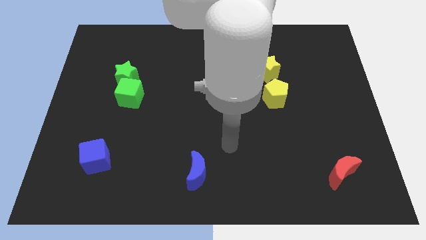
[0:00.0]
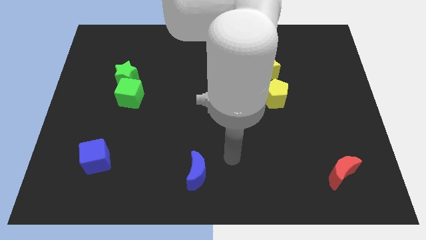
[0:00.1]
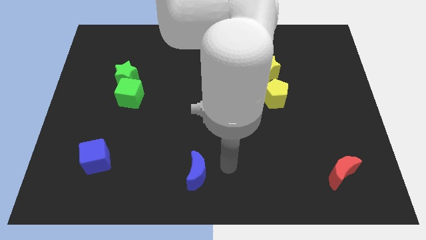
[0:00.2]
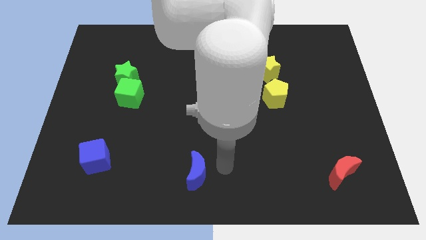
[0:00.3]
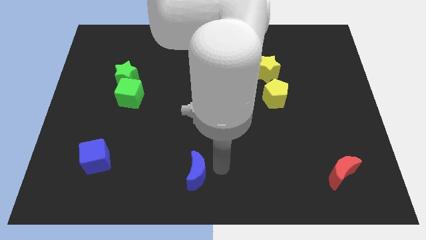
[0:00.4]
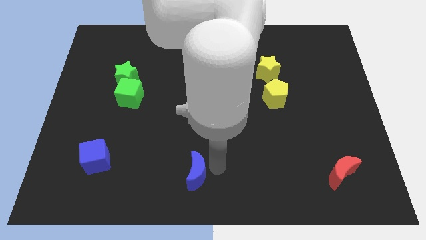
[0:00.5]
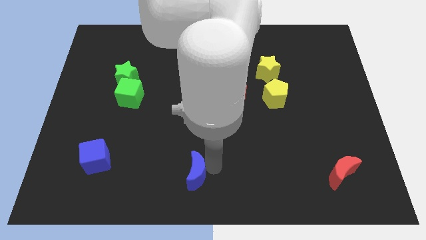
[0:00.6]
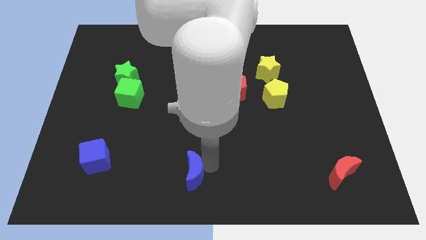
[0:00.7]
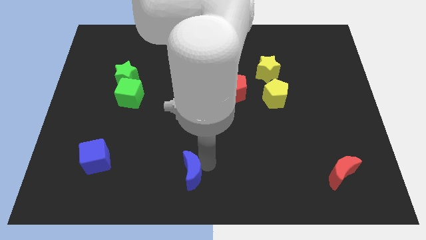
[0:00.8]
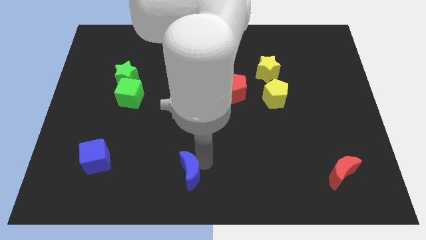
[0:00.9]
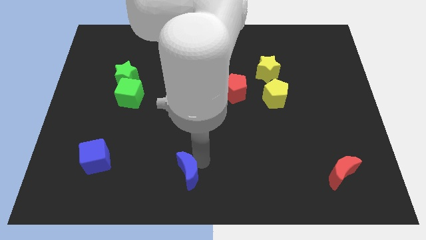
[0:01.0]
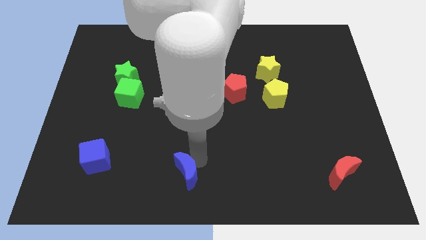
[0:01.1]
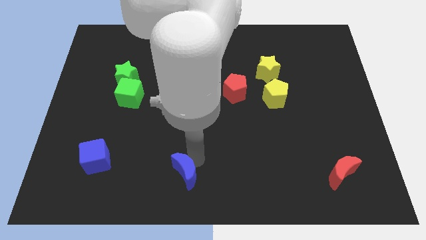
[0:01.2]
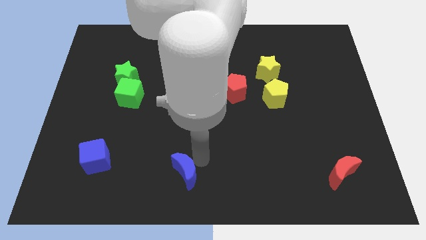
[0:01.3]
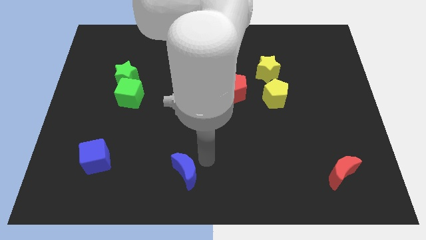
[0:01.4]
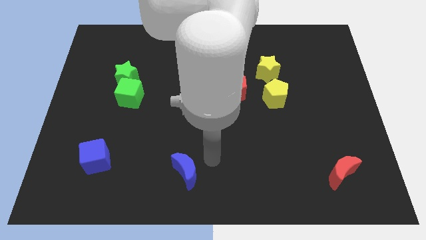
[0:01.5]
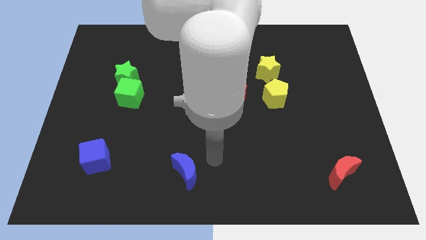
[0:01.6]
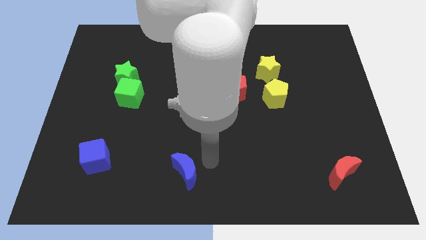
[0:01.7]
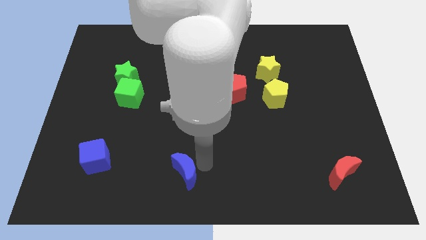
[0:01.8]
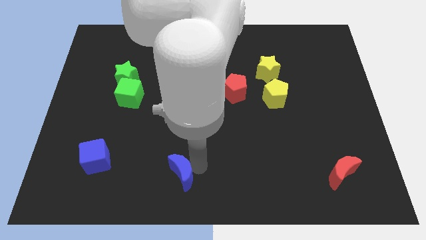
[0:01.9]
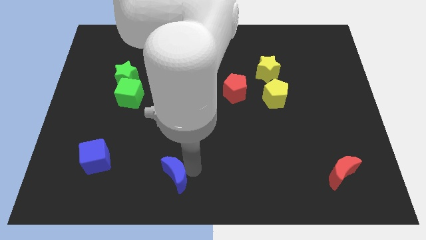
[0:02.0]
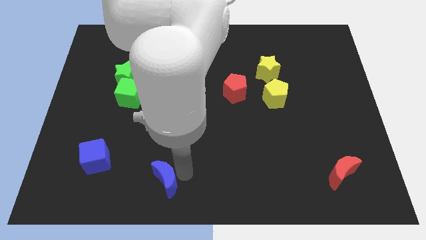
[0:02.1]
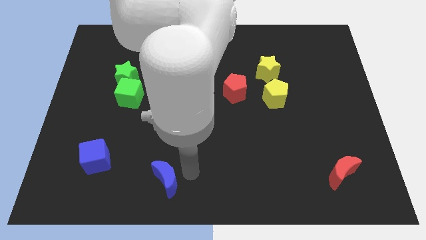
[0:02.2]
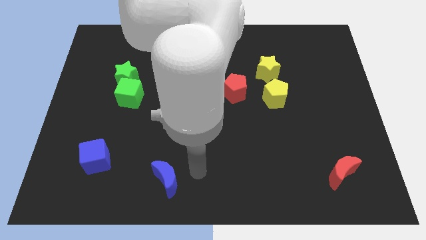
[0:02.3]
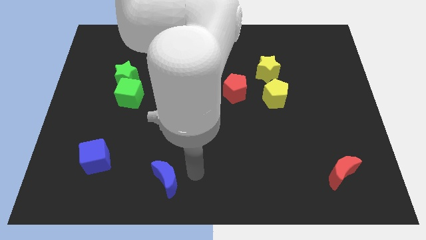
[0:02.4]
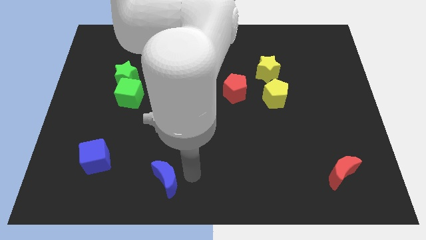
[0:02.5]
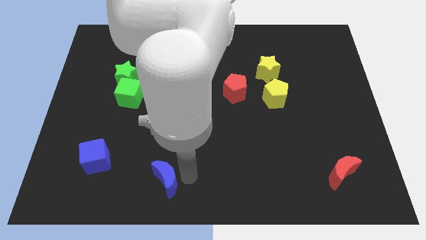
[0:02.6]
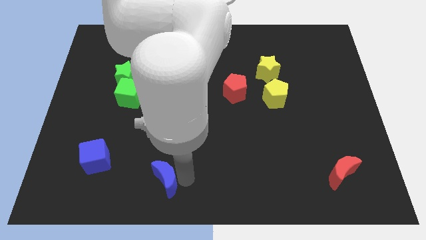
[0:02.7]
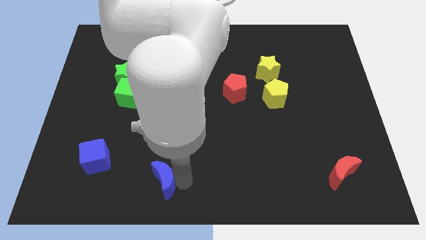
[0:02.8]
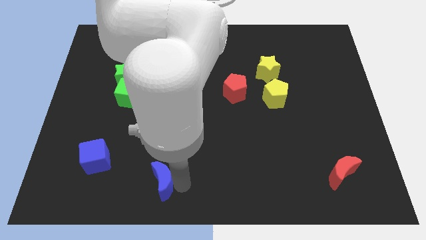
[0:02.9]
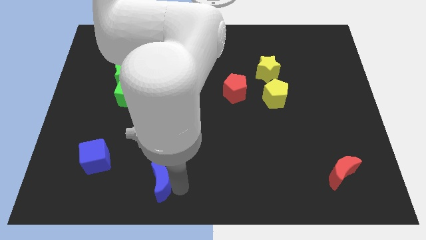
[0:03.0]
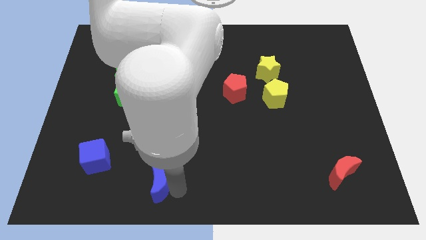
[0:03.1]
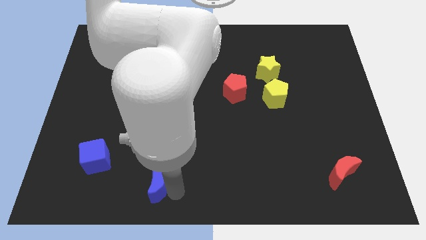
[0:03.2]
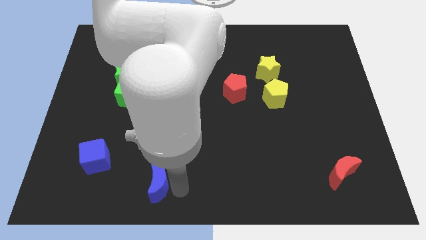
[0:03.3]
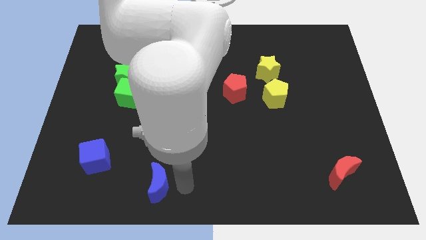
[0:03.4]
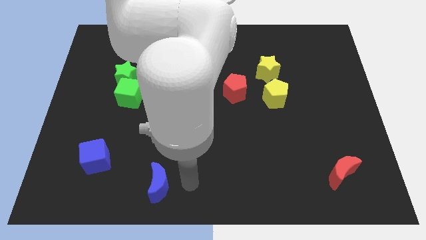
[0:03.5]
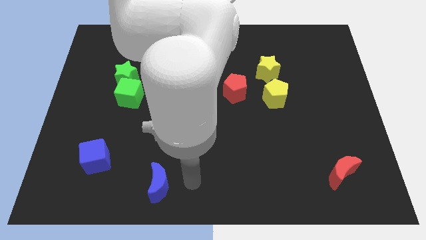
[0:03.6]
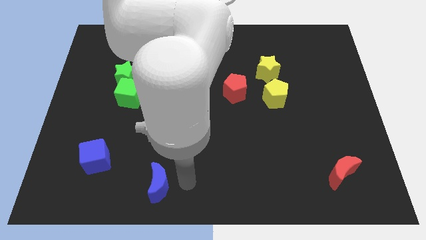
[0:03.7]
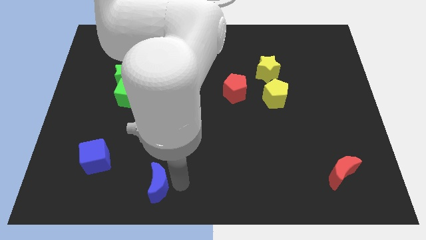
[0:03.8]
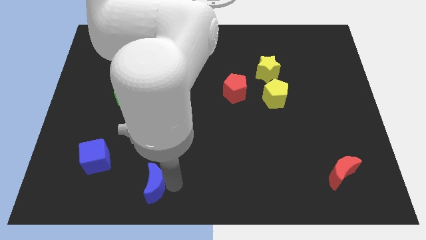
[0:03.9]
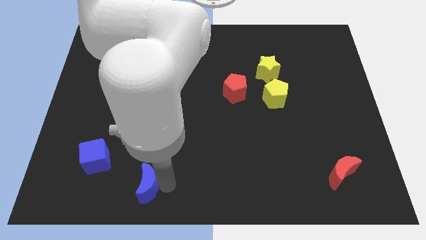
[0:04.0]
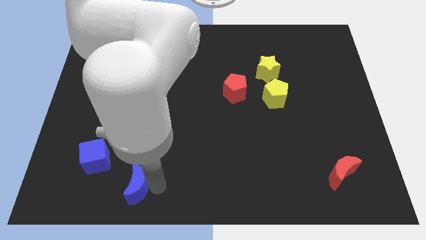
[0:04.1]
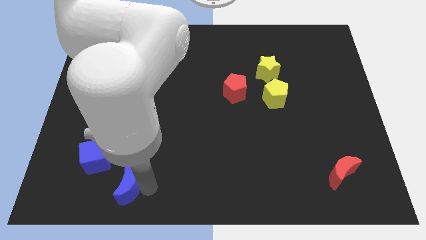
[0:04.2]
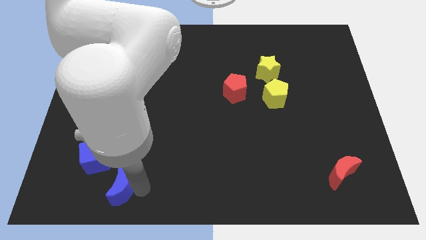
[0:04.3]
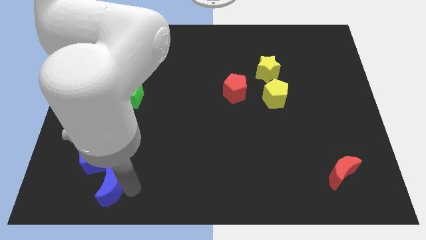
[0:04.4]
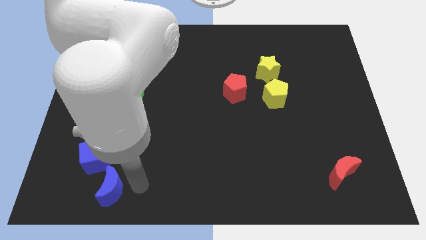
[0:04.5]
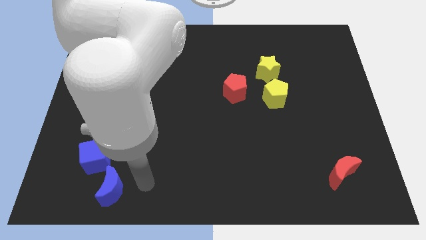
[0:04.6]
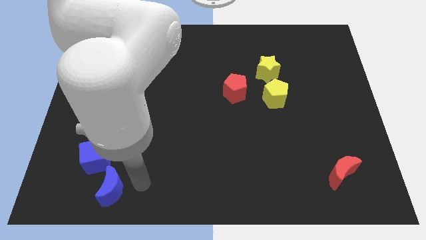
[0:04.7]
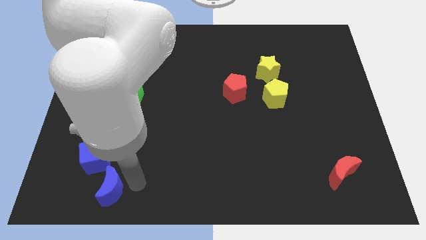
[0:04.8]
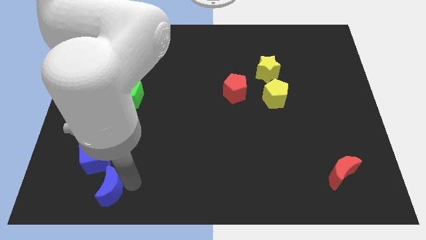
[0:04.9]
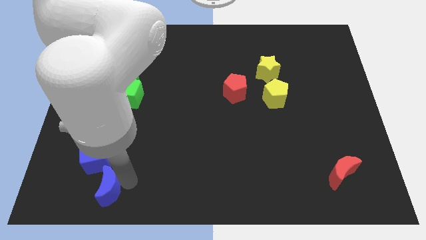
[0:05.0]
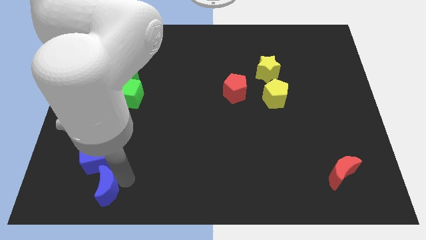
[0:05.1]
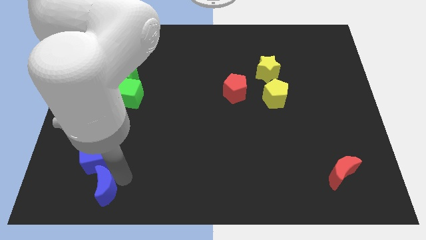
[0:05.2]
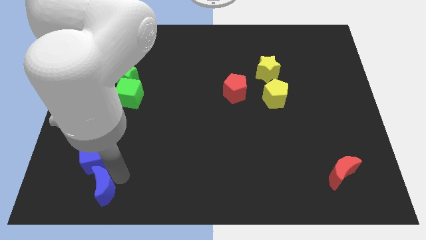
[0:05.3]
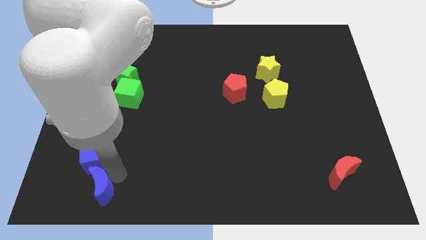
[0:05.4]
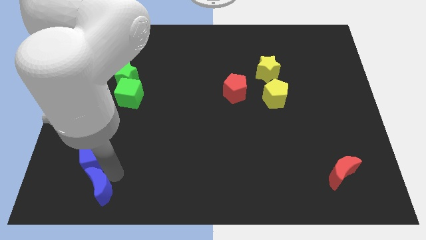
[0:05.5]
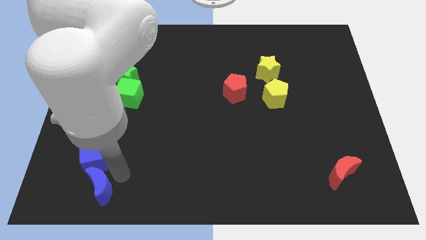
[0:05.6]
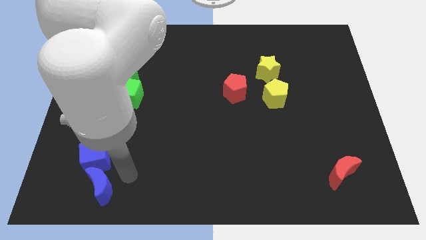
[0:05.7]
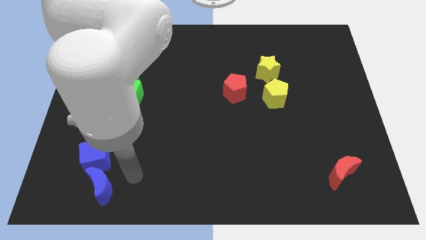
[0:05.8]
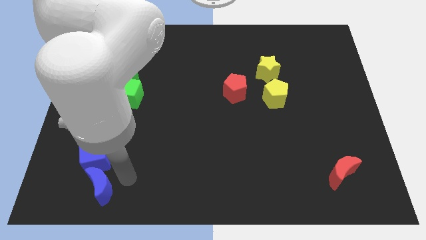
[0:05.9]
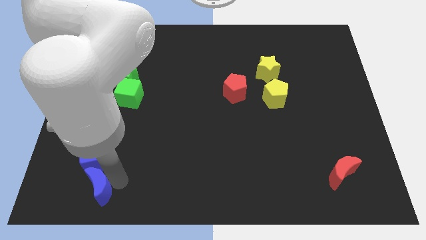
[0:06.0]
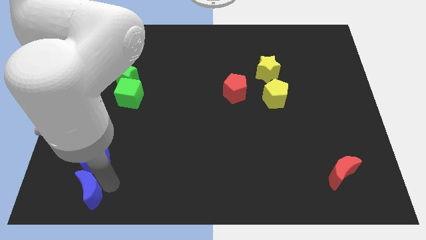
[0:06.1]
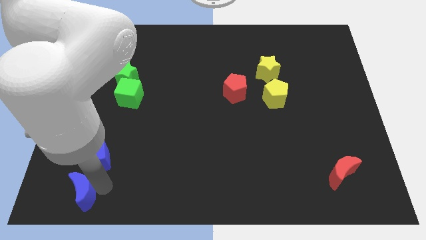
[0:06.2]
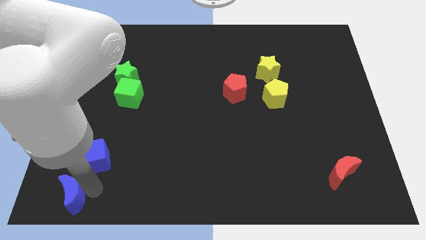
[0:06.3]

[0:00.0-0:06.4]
move the blue moon to the bottom left corner
